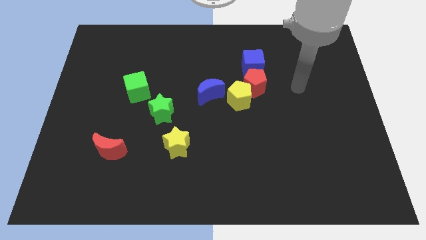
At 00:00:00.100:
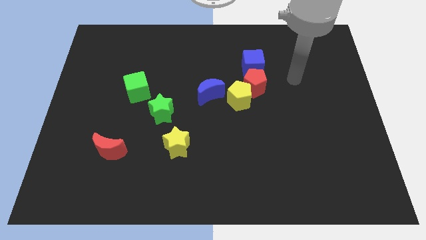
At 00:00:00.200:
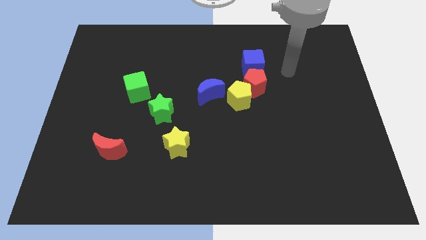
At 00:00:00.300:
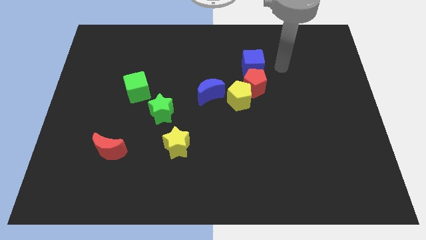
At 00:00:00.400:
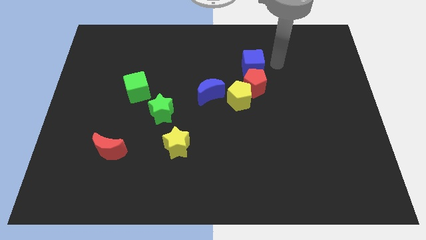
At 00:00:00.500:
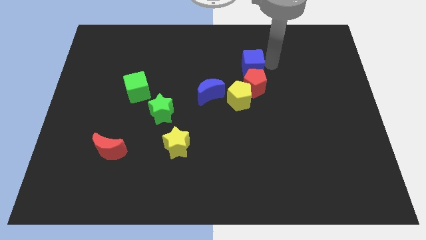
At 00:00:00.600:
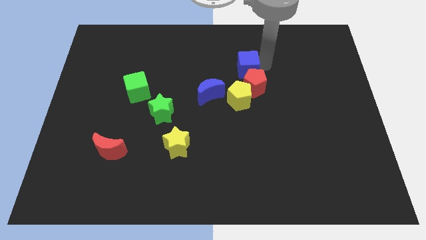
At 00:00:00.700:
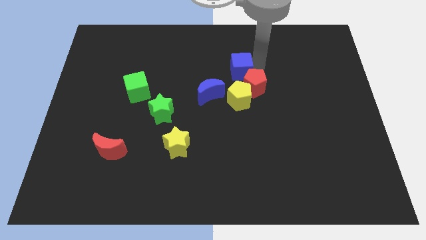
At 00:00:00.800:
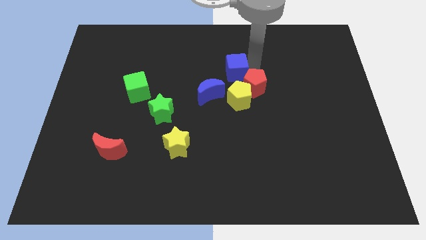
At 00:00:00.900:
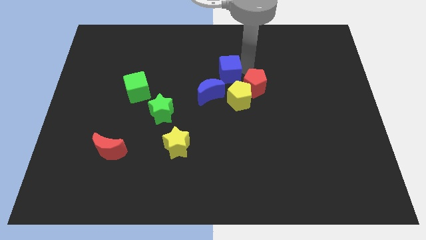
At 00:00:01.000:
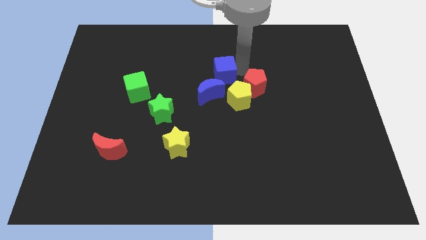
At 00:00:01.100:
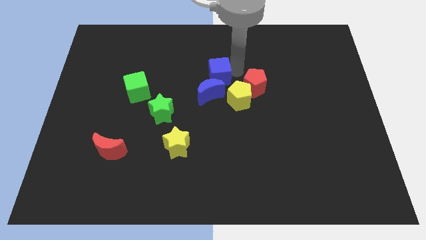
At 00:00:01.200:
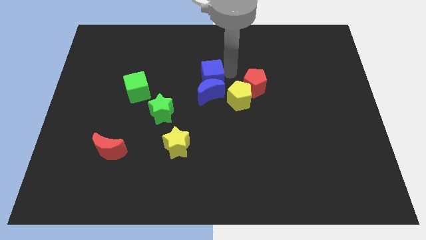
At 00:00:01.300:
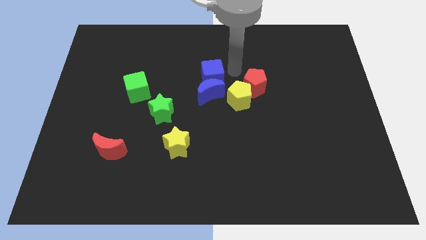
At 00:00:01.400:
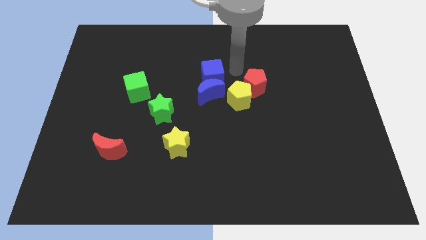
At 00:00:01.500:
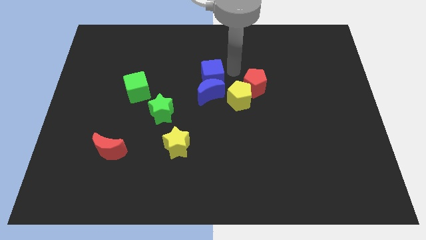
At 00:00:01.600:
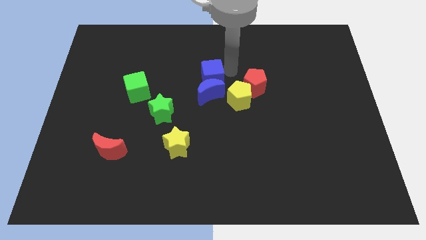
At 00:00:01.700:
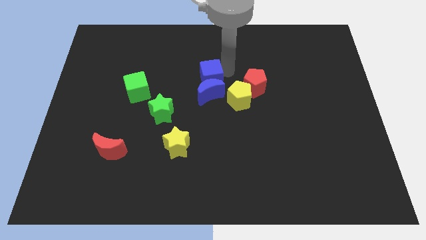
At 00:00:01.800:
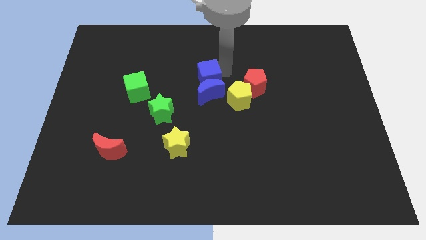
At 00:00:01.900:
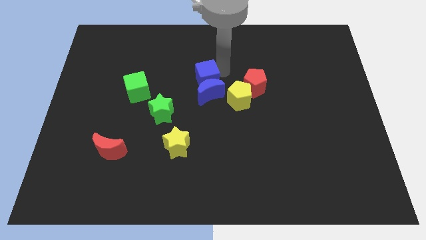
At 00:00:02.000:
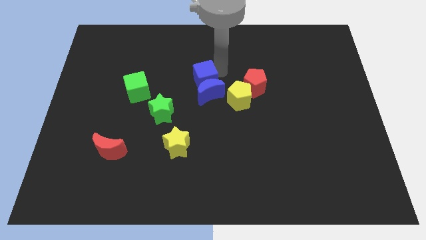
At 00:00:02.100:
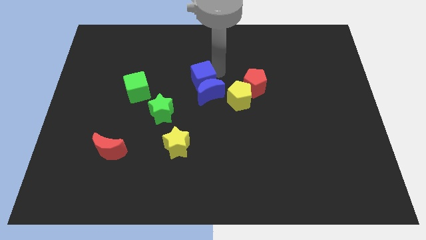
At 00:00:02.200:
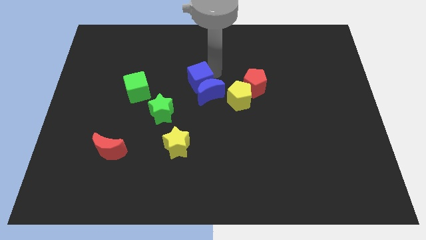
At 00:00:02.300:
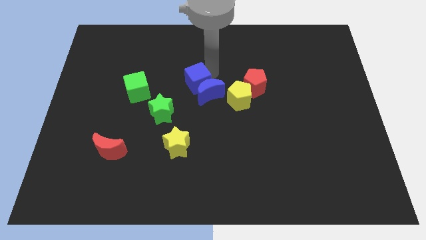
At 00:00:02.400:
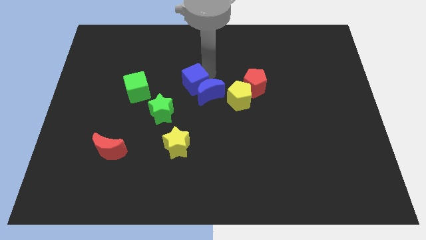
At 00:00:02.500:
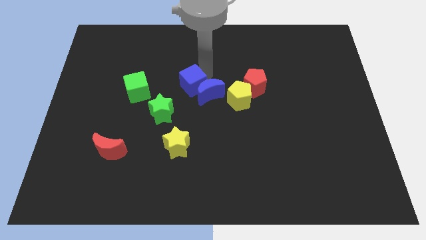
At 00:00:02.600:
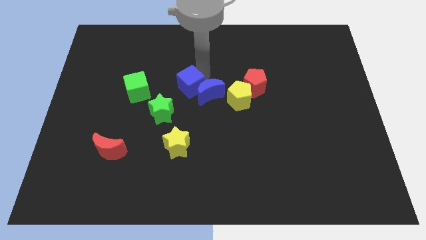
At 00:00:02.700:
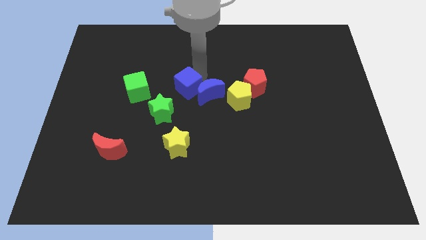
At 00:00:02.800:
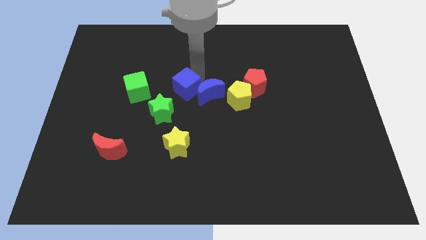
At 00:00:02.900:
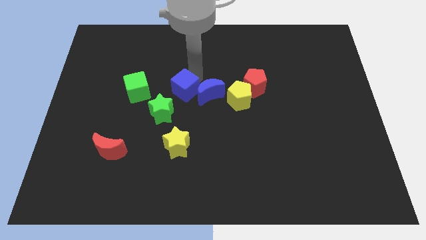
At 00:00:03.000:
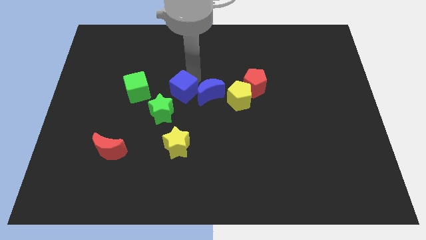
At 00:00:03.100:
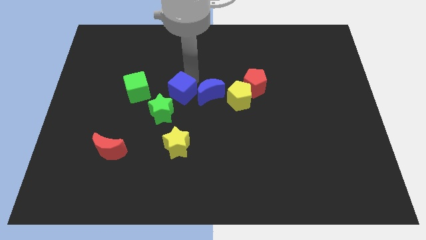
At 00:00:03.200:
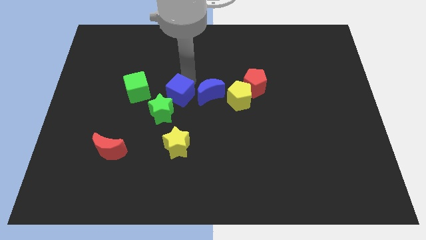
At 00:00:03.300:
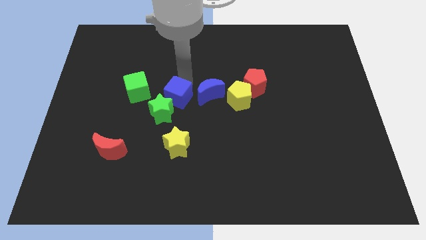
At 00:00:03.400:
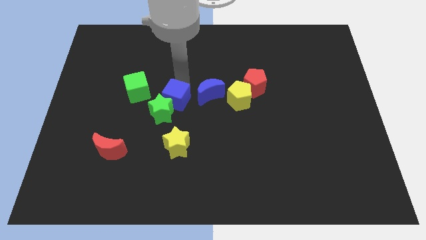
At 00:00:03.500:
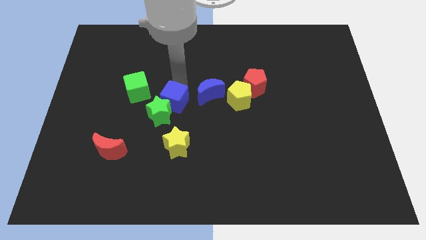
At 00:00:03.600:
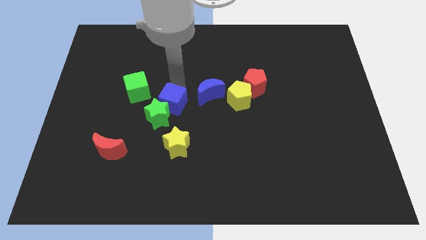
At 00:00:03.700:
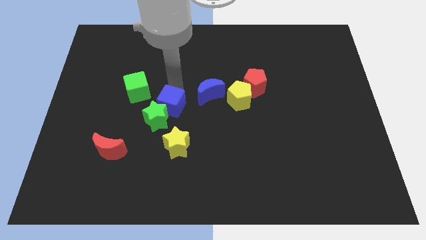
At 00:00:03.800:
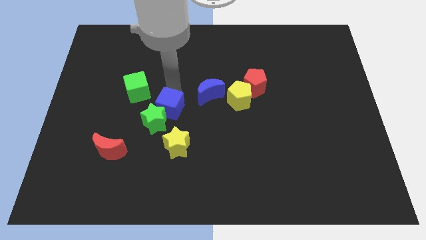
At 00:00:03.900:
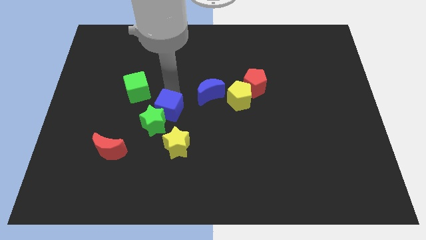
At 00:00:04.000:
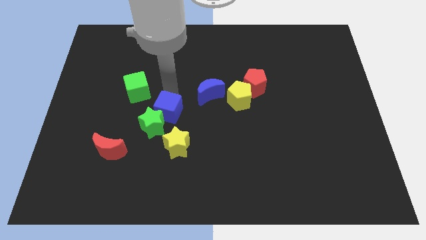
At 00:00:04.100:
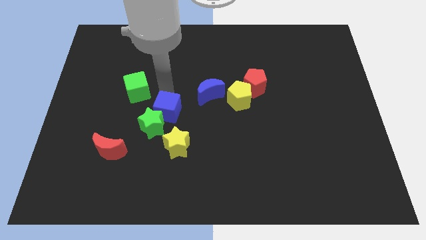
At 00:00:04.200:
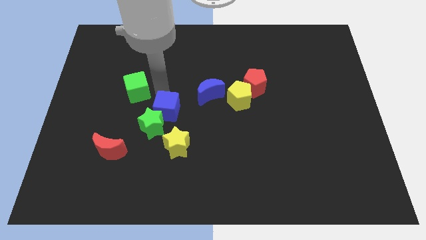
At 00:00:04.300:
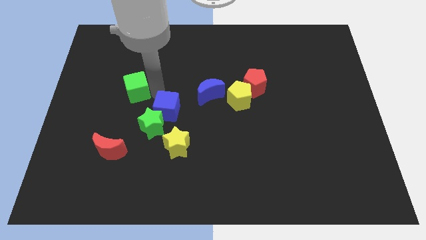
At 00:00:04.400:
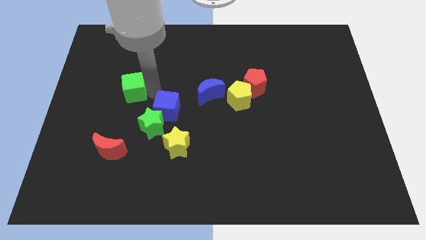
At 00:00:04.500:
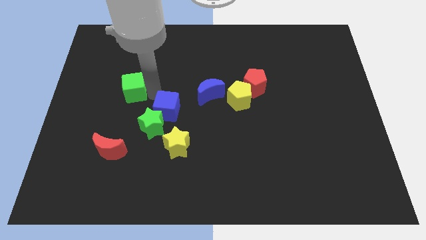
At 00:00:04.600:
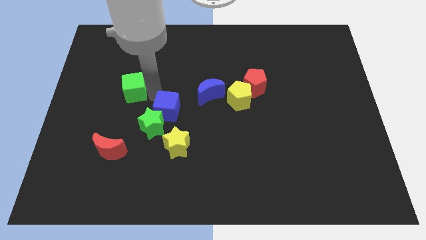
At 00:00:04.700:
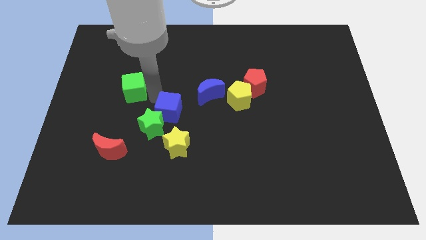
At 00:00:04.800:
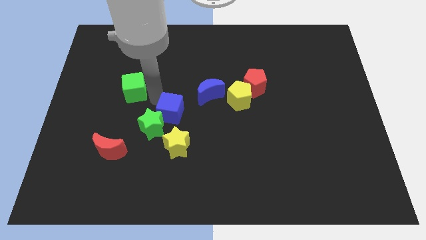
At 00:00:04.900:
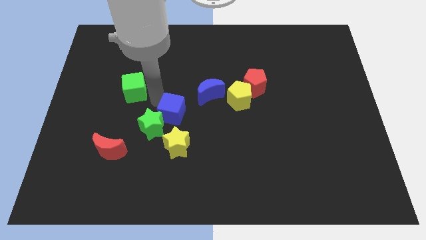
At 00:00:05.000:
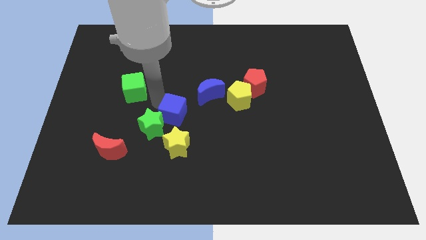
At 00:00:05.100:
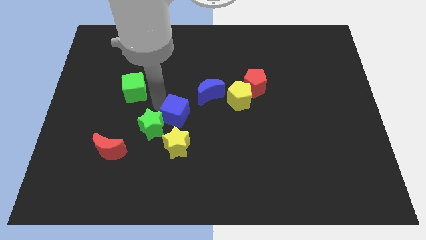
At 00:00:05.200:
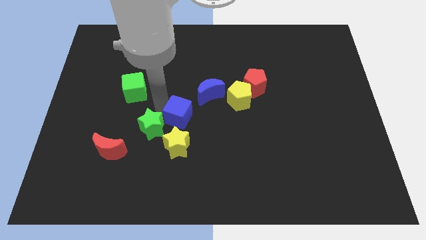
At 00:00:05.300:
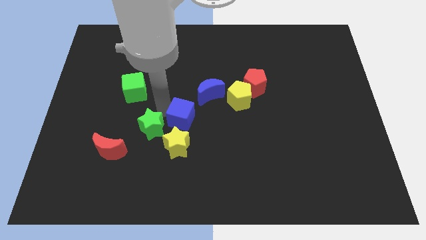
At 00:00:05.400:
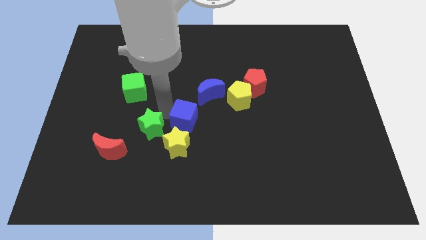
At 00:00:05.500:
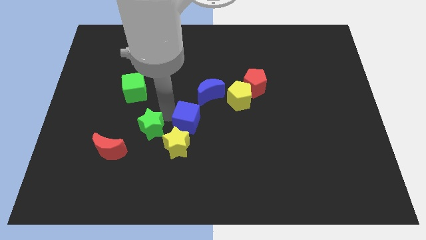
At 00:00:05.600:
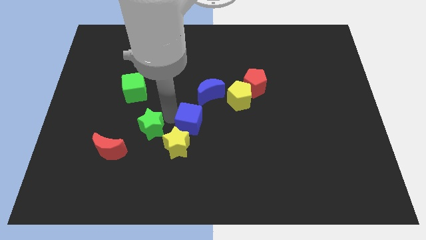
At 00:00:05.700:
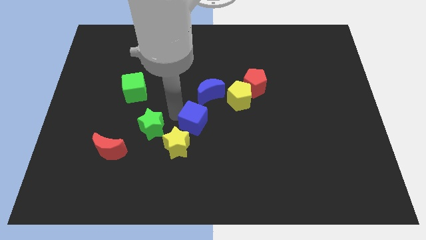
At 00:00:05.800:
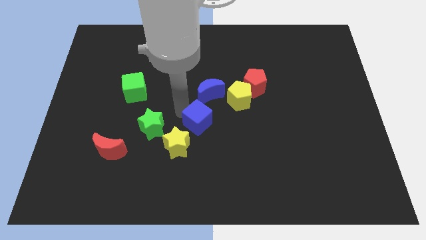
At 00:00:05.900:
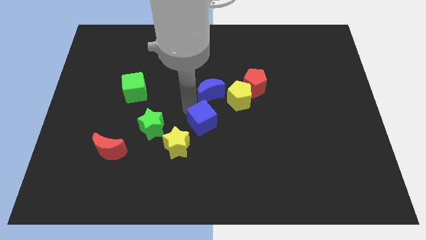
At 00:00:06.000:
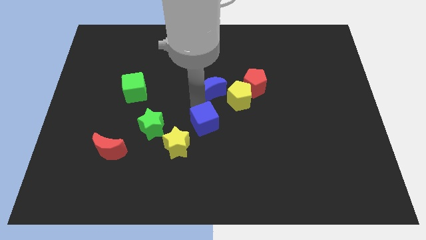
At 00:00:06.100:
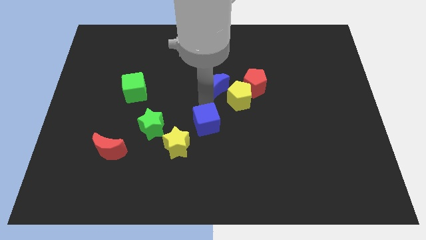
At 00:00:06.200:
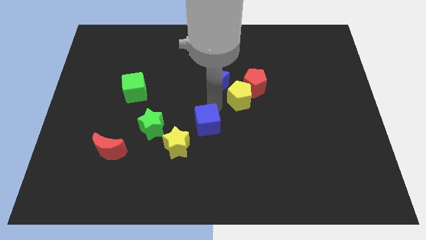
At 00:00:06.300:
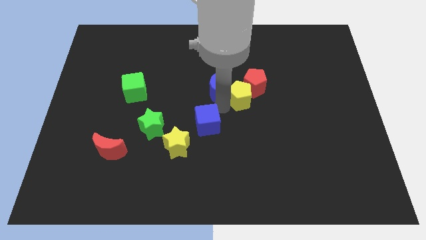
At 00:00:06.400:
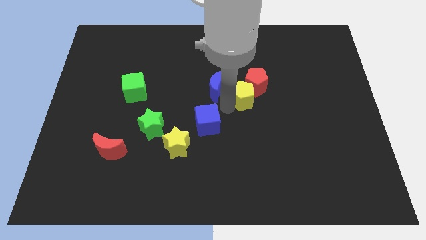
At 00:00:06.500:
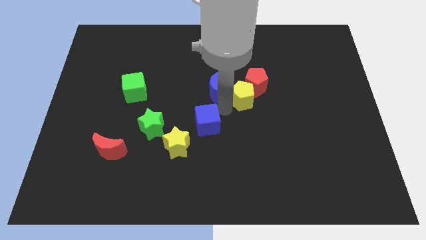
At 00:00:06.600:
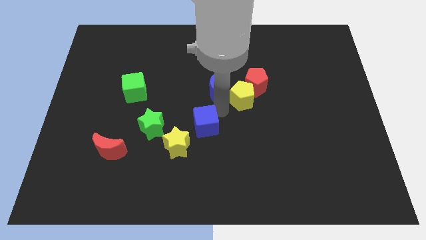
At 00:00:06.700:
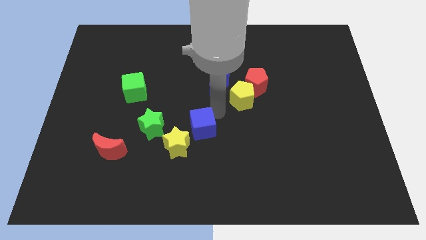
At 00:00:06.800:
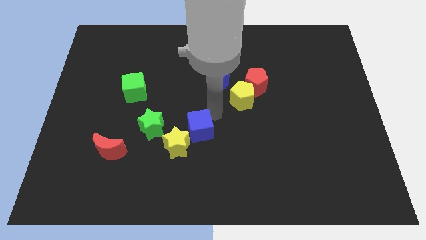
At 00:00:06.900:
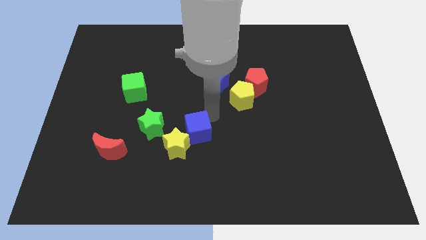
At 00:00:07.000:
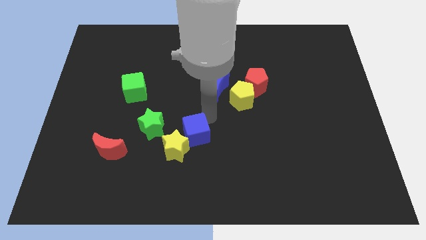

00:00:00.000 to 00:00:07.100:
push the blue cube close to the yellow star
